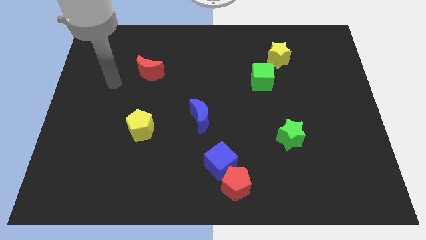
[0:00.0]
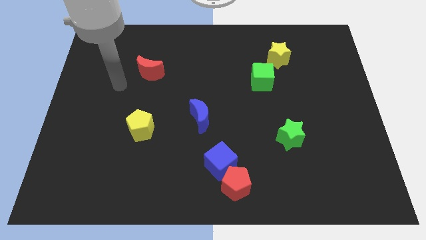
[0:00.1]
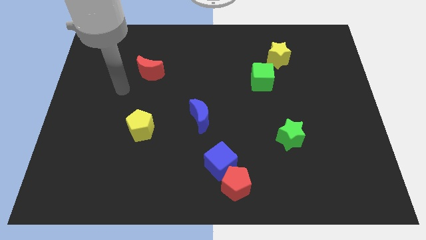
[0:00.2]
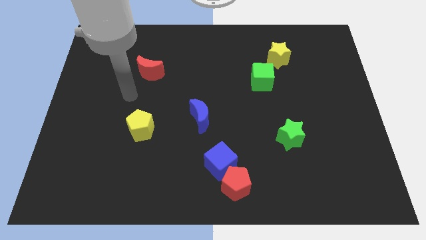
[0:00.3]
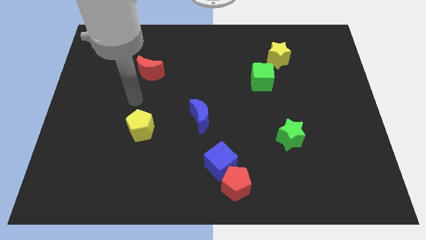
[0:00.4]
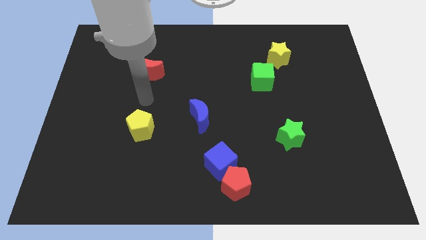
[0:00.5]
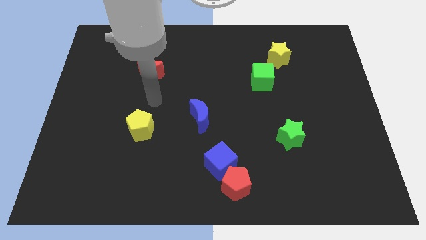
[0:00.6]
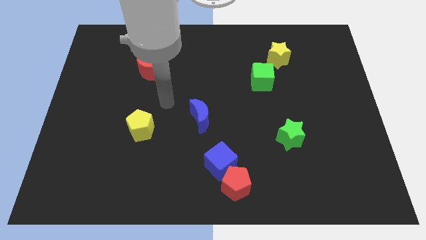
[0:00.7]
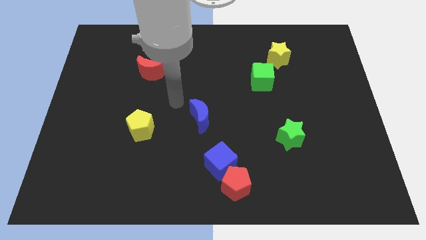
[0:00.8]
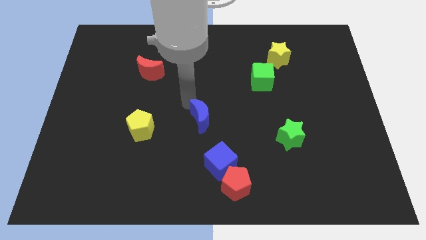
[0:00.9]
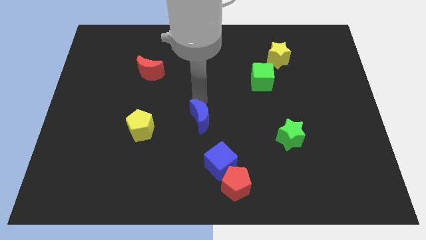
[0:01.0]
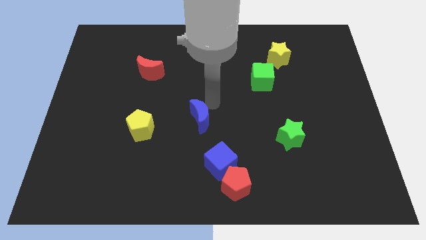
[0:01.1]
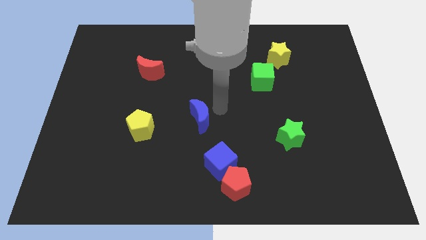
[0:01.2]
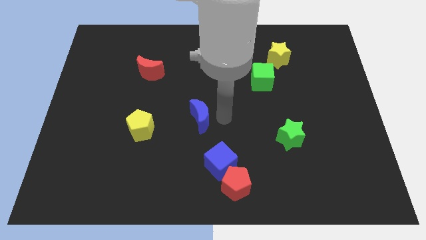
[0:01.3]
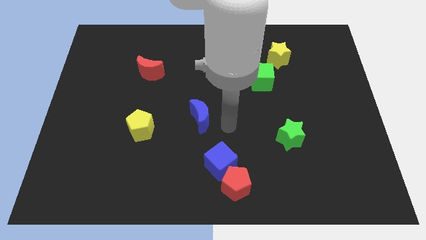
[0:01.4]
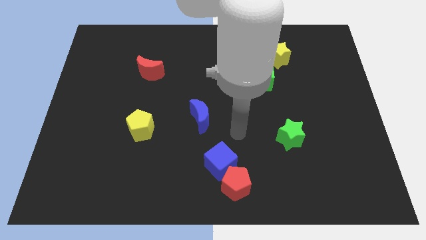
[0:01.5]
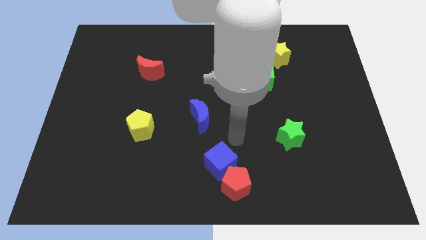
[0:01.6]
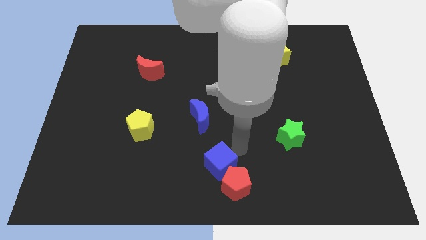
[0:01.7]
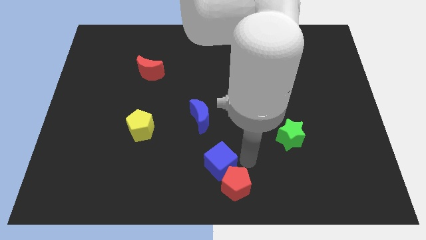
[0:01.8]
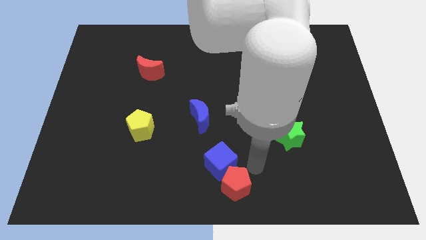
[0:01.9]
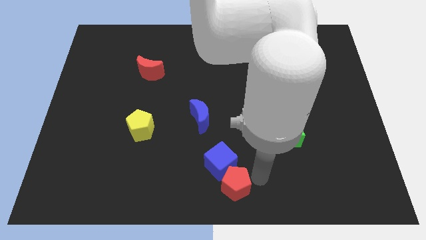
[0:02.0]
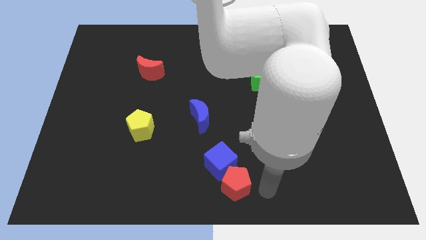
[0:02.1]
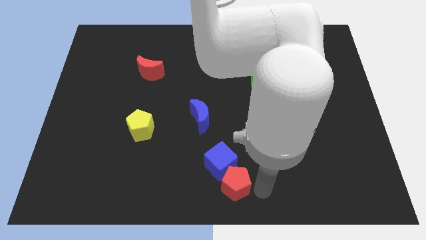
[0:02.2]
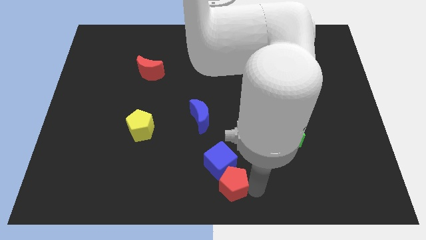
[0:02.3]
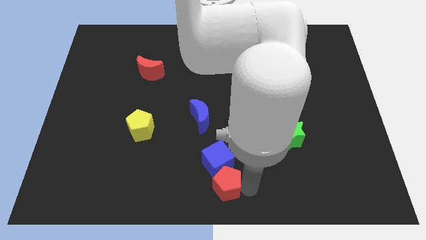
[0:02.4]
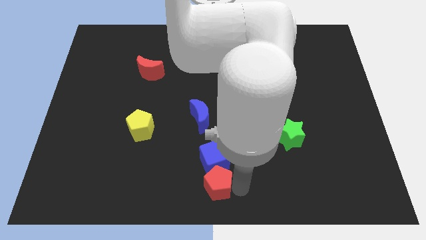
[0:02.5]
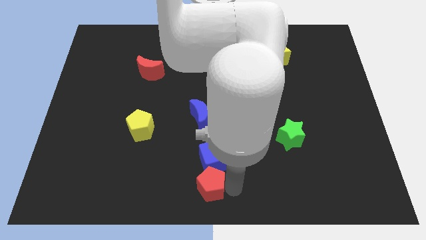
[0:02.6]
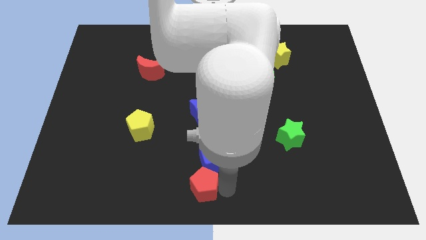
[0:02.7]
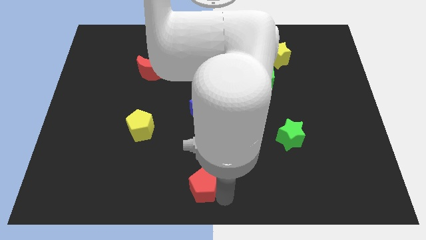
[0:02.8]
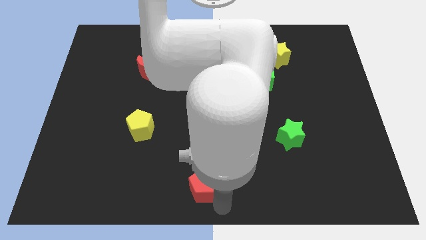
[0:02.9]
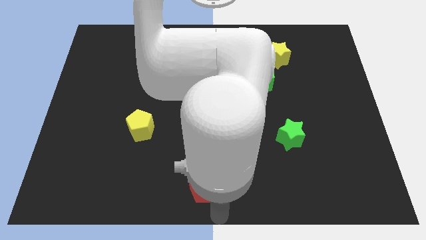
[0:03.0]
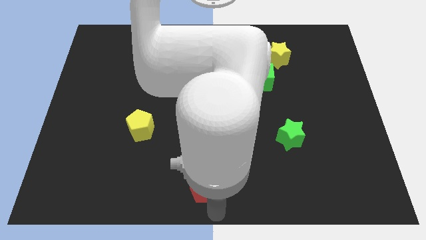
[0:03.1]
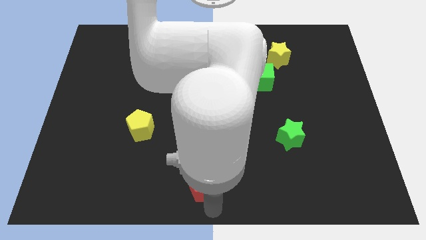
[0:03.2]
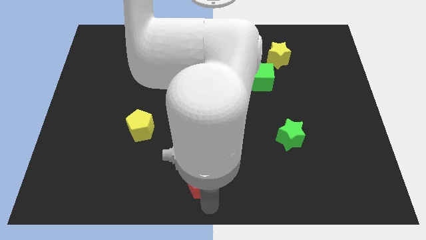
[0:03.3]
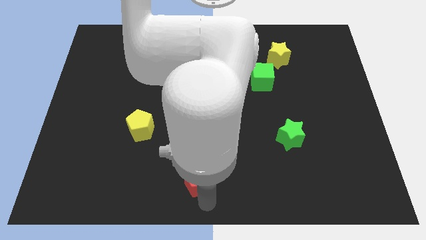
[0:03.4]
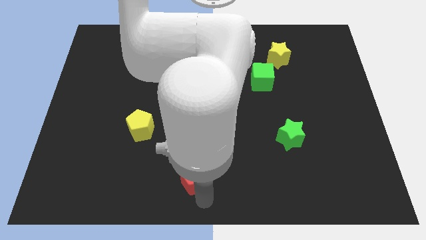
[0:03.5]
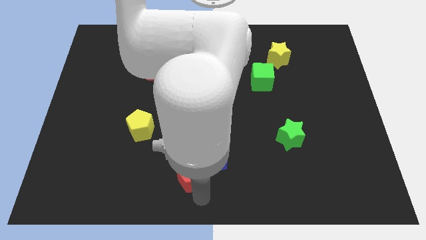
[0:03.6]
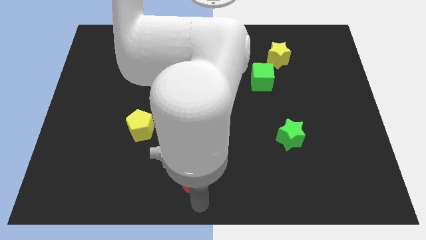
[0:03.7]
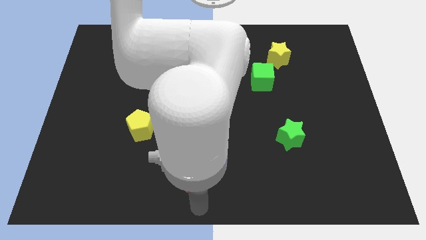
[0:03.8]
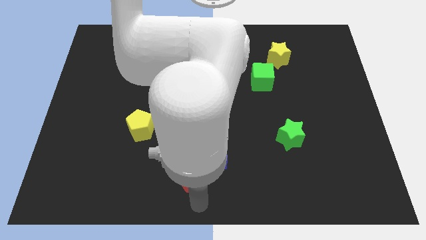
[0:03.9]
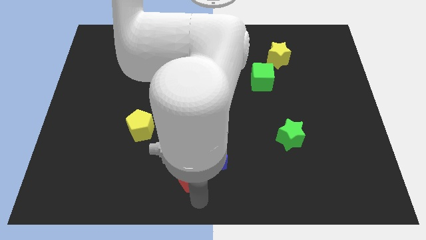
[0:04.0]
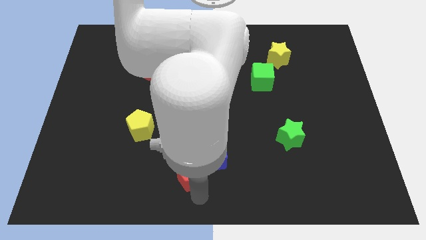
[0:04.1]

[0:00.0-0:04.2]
slide the red pentagon a bit upwards and to the left diagonally

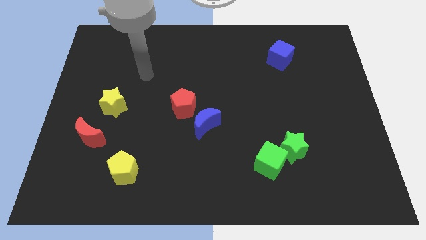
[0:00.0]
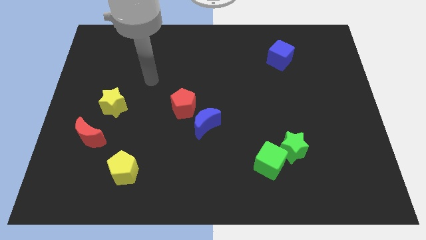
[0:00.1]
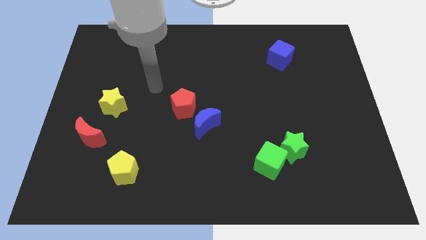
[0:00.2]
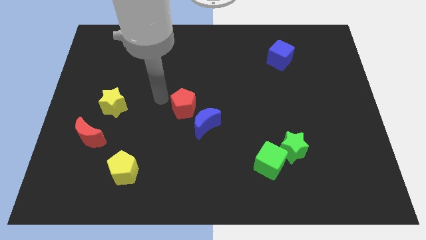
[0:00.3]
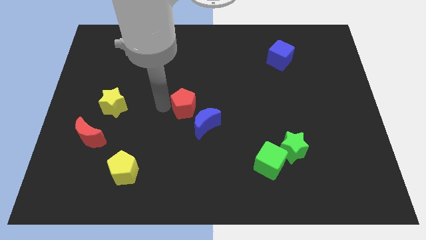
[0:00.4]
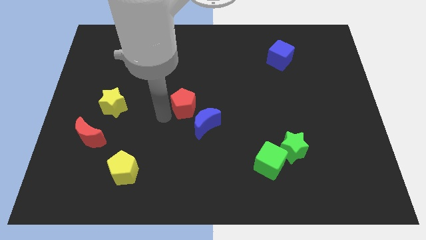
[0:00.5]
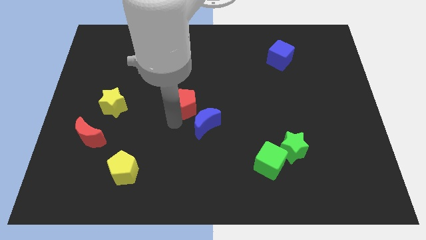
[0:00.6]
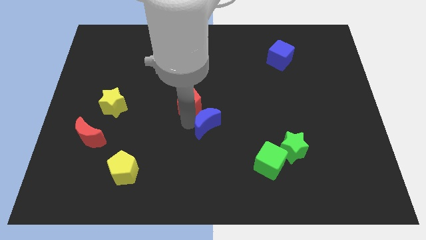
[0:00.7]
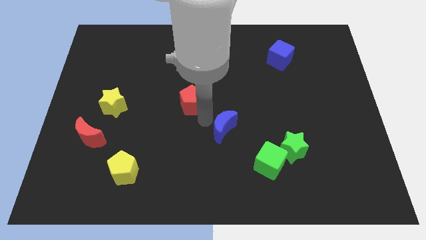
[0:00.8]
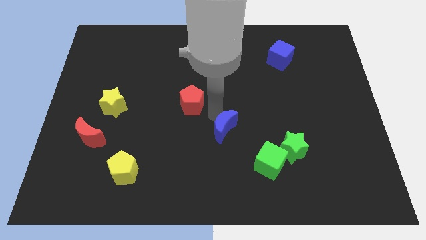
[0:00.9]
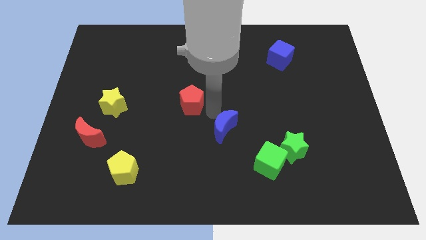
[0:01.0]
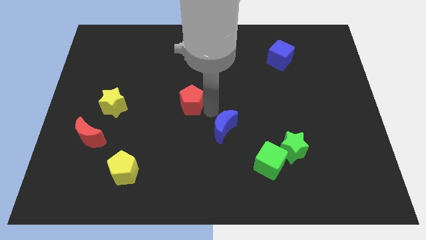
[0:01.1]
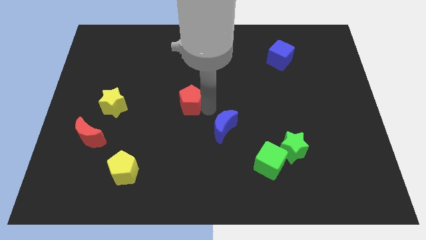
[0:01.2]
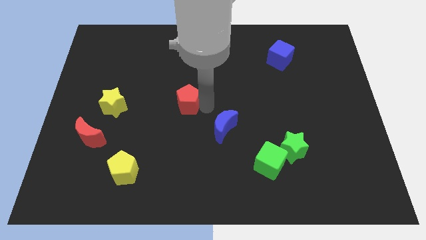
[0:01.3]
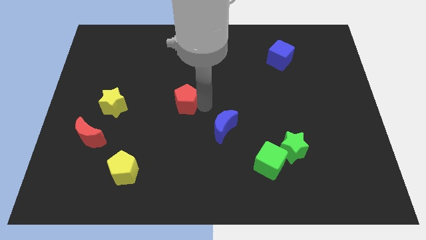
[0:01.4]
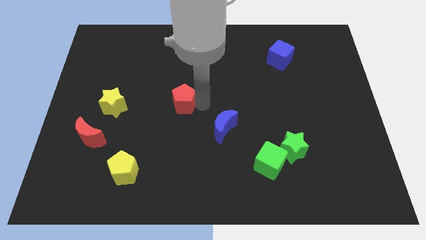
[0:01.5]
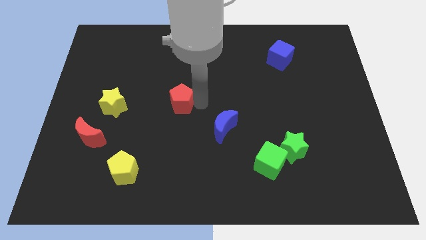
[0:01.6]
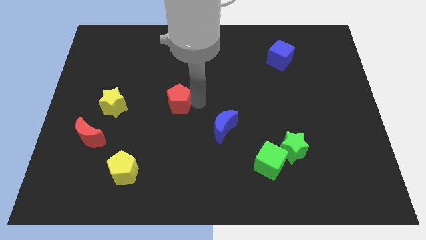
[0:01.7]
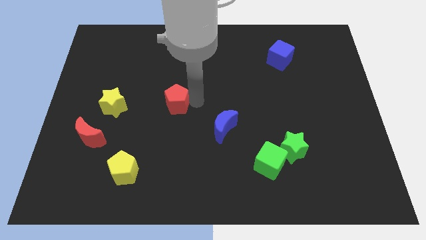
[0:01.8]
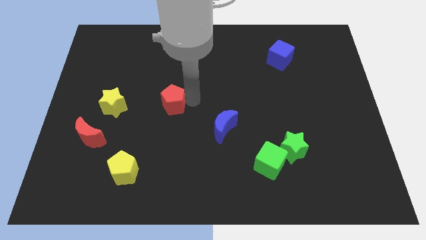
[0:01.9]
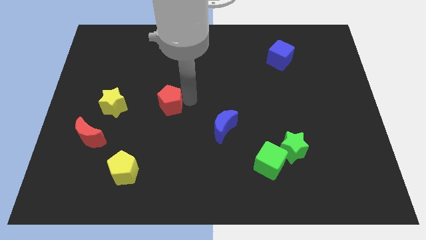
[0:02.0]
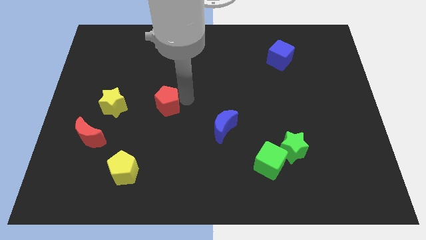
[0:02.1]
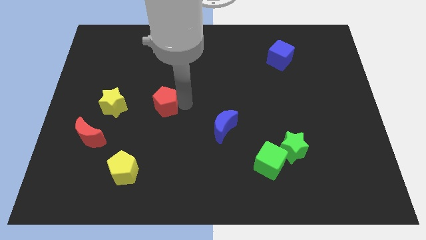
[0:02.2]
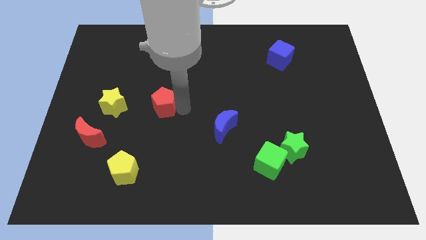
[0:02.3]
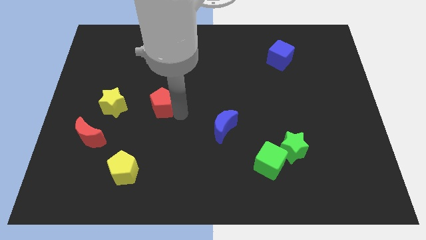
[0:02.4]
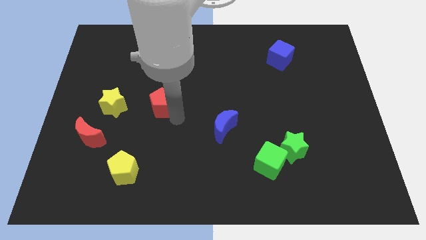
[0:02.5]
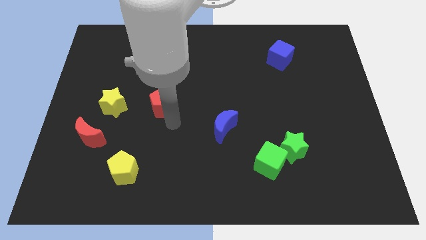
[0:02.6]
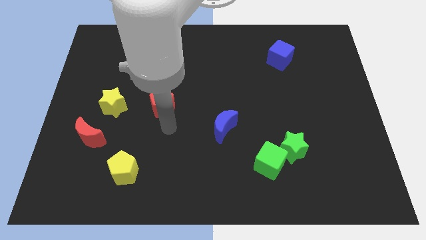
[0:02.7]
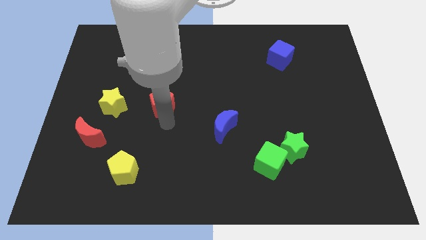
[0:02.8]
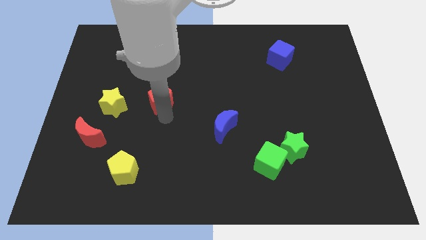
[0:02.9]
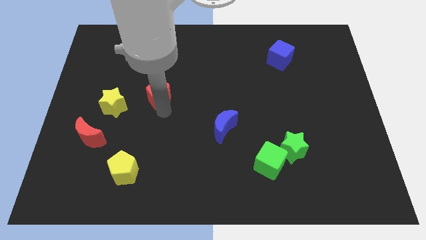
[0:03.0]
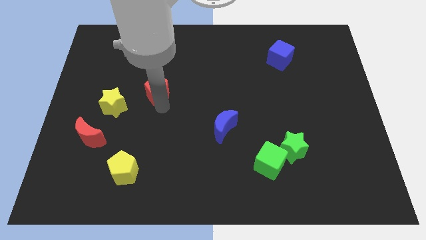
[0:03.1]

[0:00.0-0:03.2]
move the red pentagon somewhat up and left

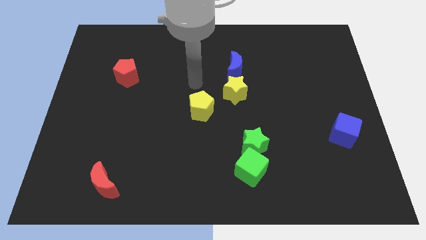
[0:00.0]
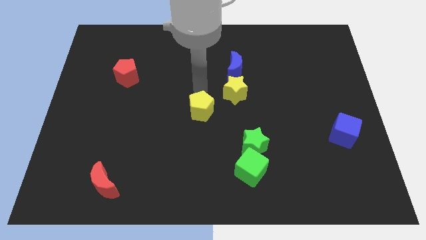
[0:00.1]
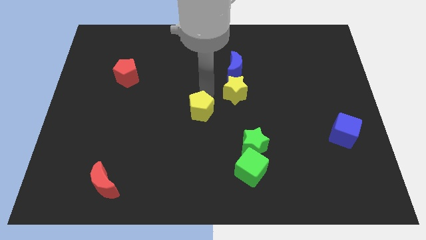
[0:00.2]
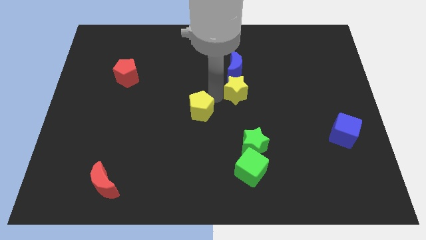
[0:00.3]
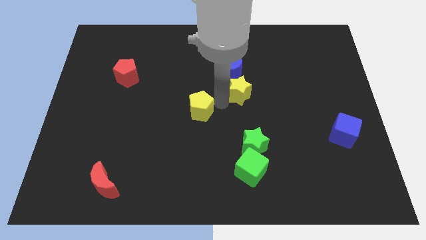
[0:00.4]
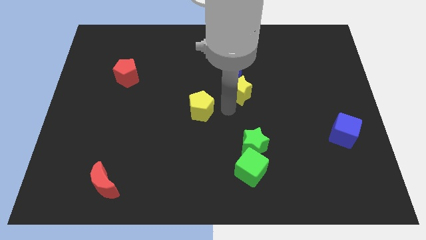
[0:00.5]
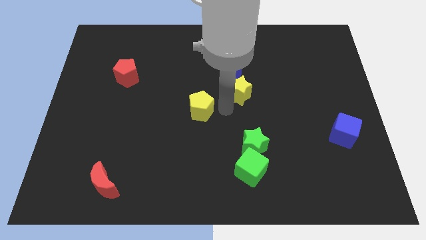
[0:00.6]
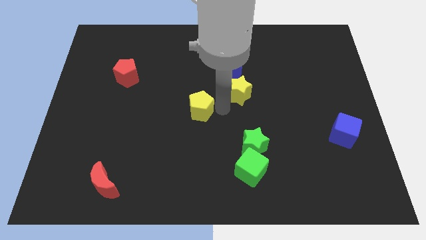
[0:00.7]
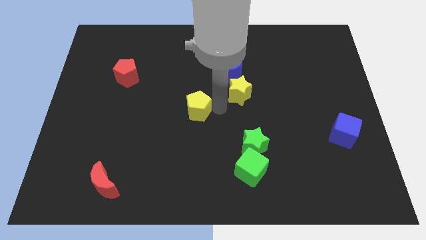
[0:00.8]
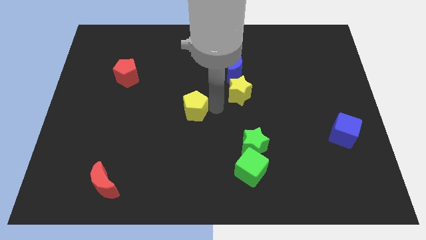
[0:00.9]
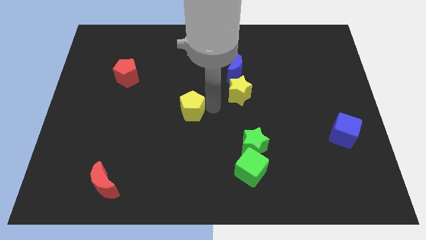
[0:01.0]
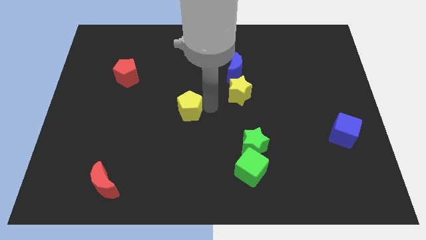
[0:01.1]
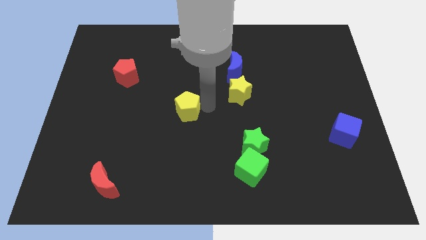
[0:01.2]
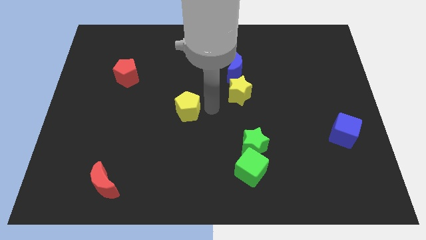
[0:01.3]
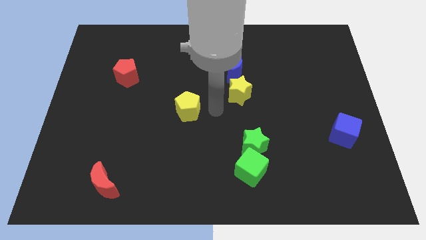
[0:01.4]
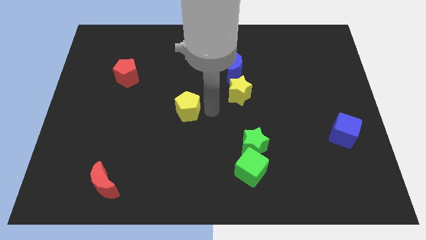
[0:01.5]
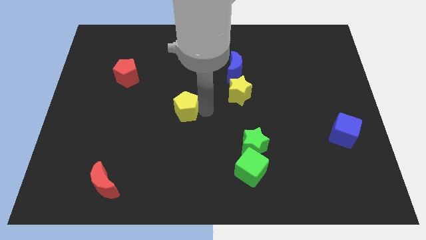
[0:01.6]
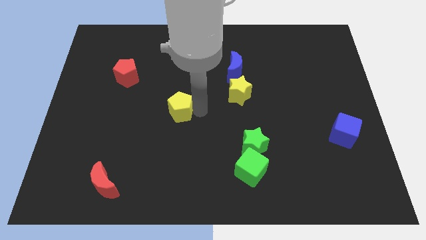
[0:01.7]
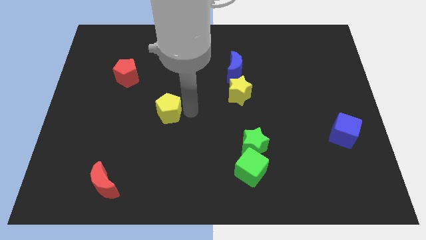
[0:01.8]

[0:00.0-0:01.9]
move the yellow pentagon slightly to the left
